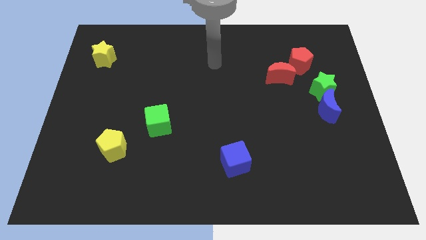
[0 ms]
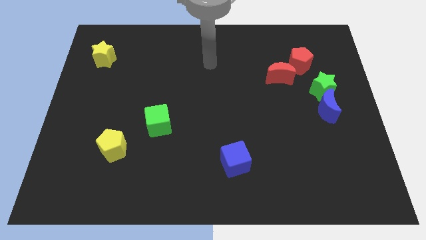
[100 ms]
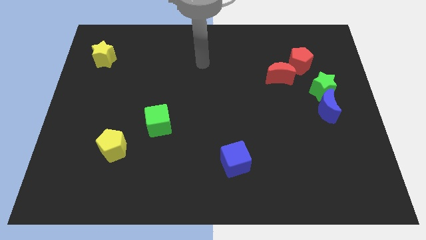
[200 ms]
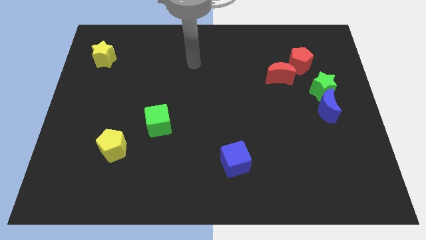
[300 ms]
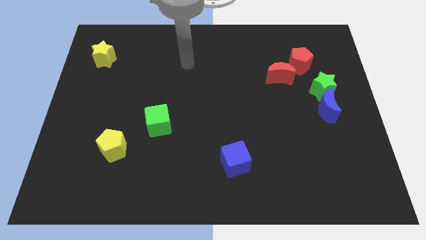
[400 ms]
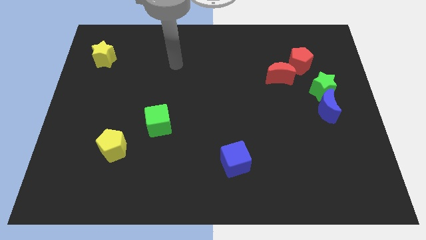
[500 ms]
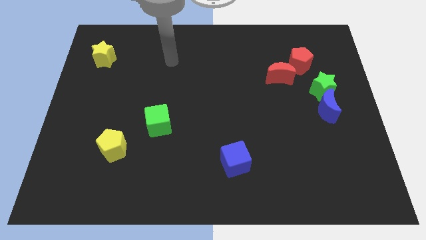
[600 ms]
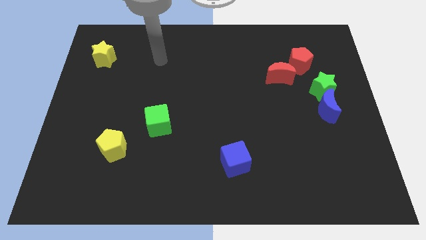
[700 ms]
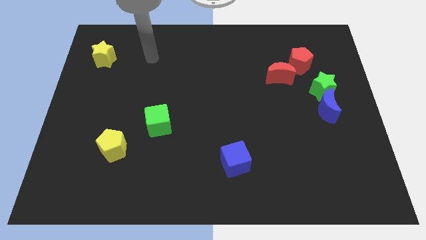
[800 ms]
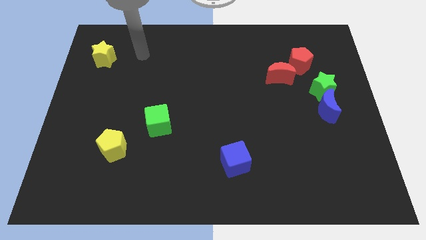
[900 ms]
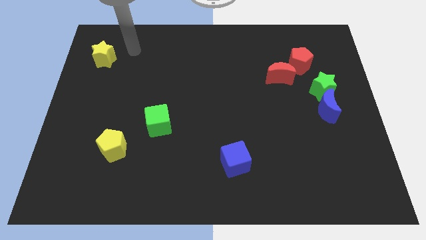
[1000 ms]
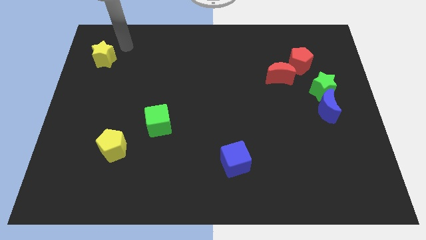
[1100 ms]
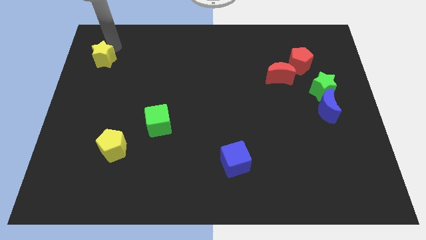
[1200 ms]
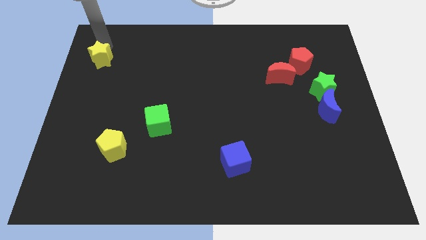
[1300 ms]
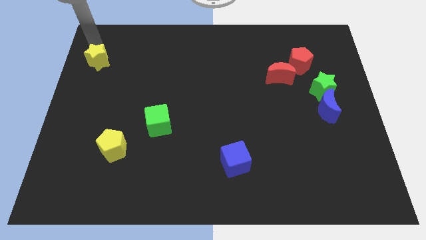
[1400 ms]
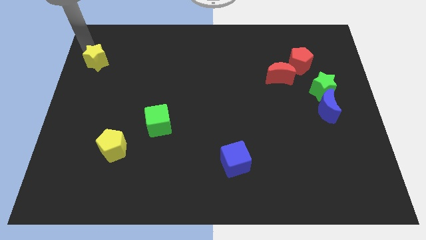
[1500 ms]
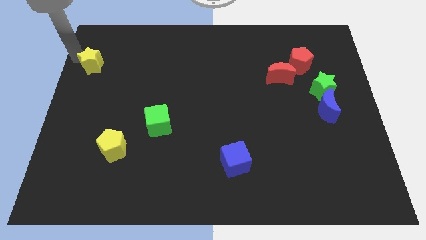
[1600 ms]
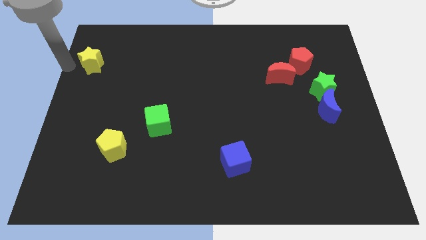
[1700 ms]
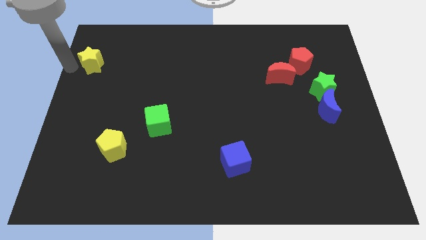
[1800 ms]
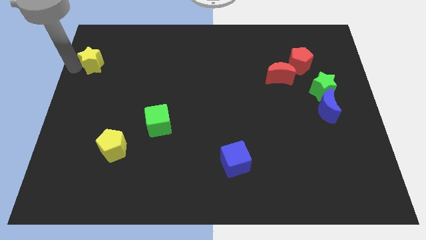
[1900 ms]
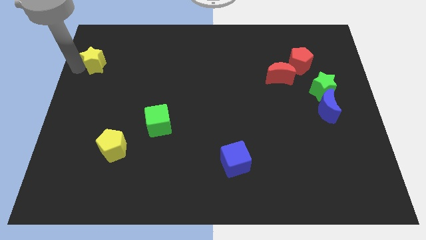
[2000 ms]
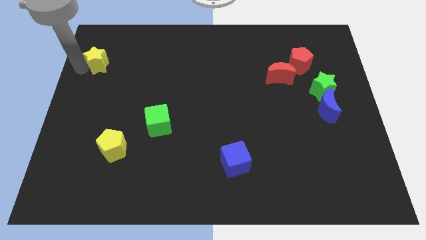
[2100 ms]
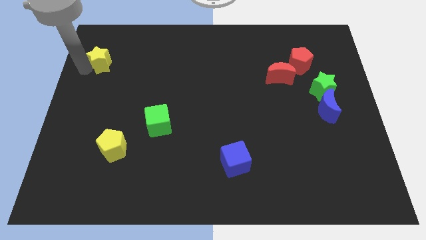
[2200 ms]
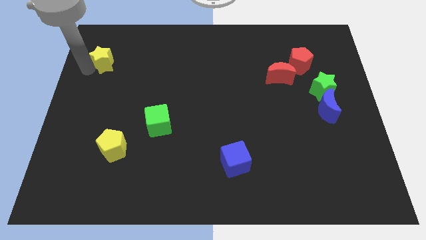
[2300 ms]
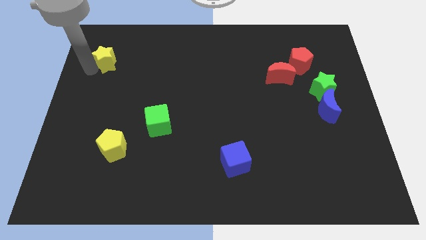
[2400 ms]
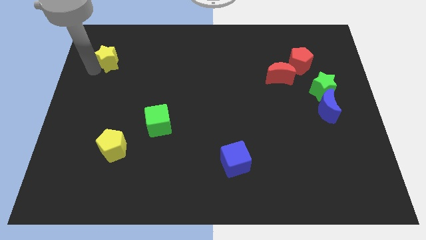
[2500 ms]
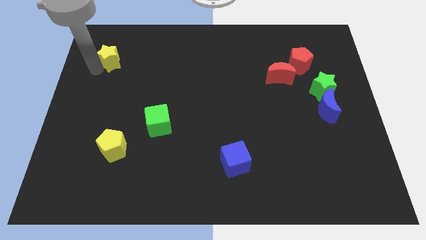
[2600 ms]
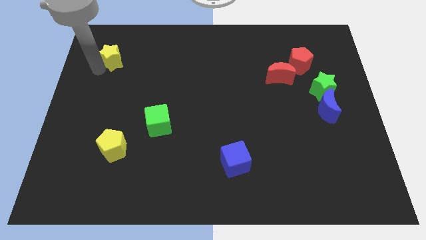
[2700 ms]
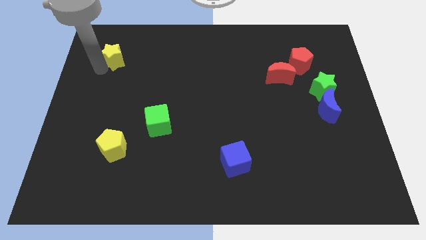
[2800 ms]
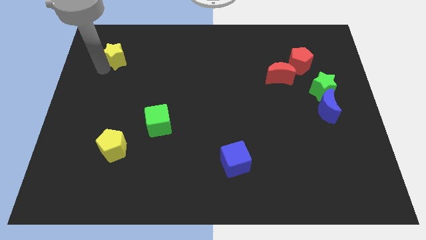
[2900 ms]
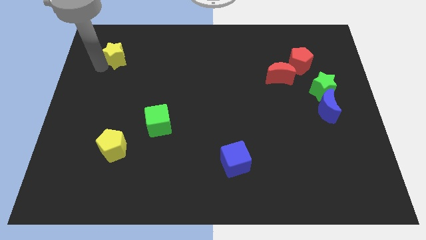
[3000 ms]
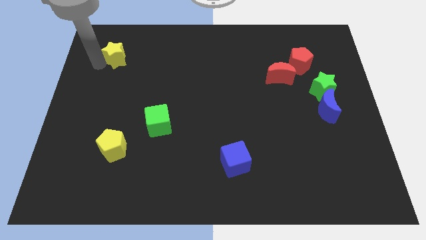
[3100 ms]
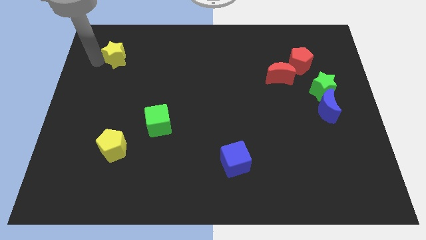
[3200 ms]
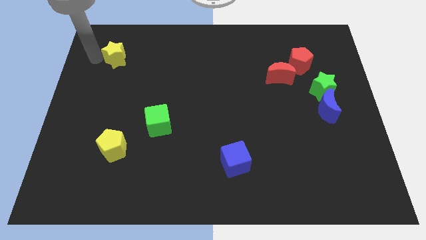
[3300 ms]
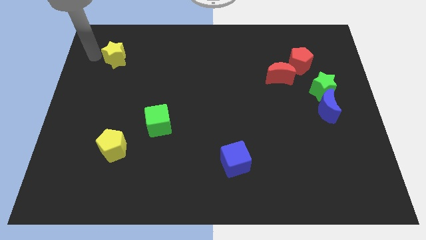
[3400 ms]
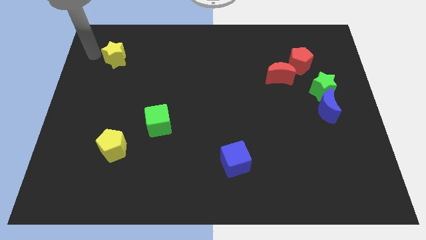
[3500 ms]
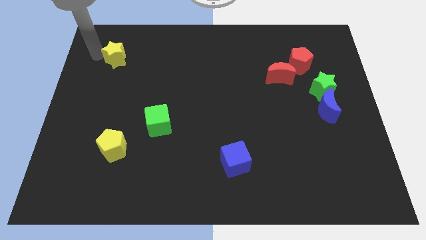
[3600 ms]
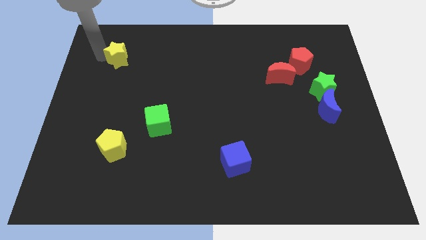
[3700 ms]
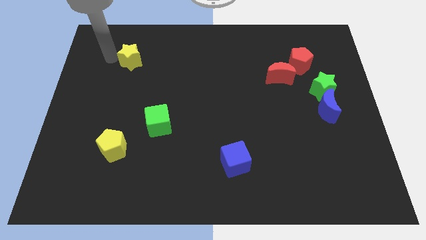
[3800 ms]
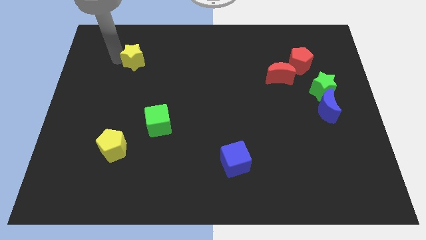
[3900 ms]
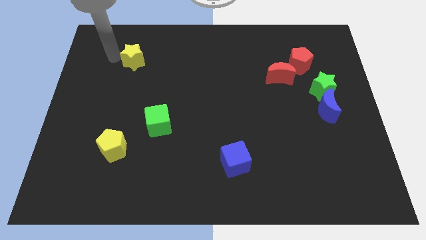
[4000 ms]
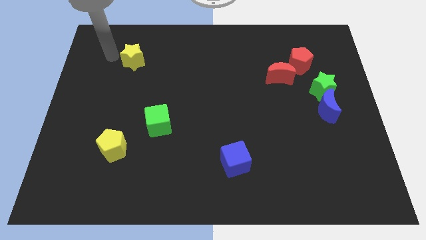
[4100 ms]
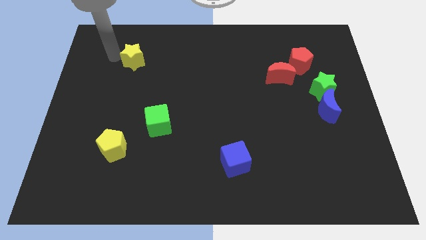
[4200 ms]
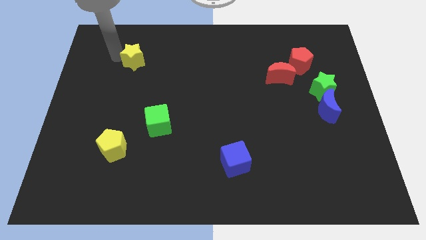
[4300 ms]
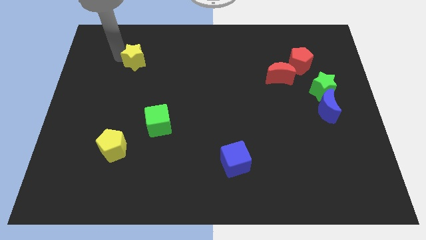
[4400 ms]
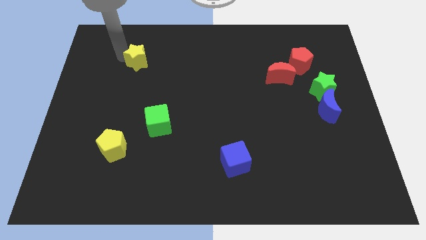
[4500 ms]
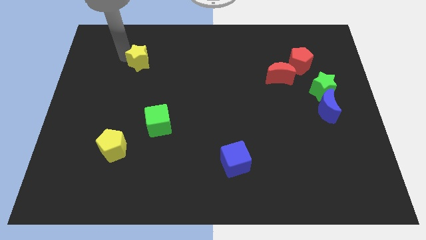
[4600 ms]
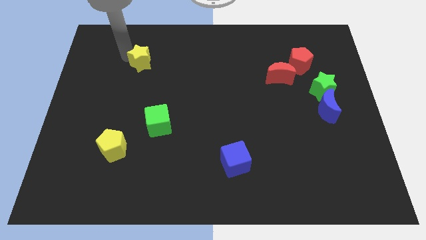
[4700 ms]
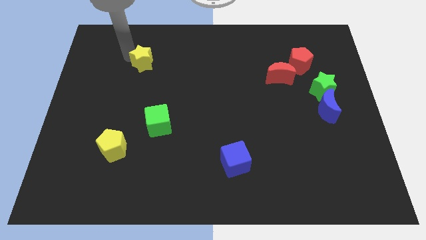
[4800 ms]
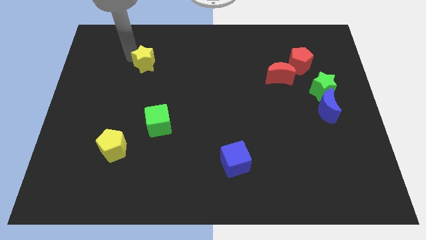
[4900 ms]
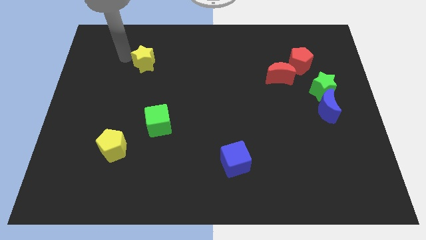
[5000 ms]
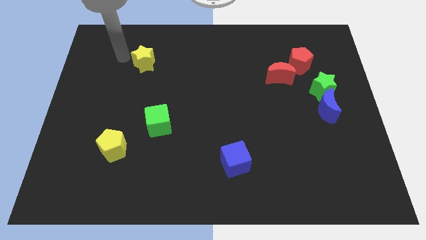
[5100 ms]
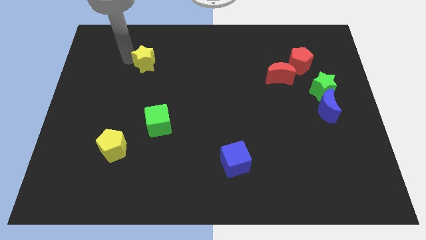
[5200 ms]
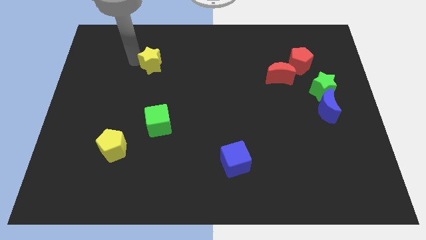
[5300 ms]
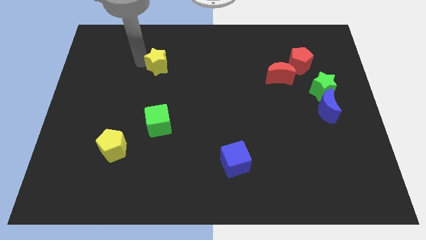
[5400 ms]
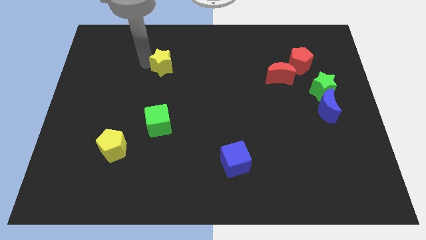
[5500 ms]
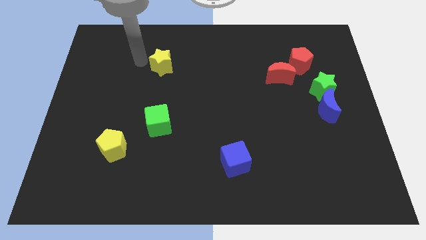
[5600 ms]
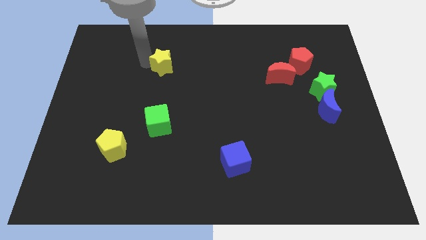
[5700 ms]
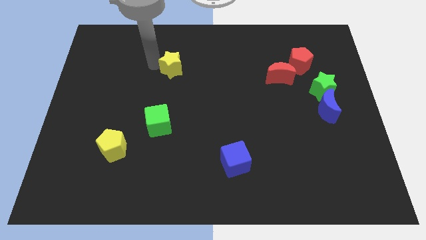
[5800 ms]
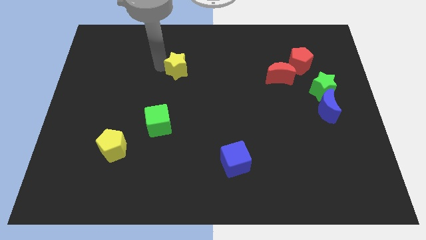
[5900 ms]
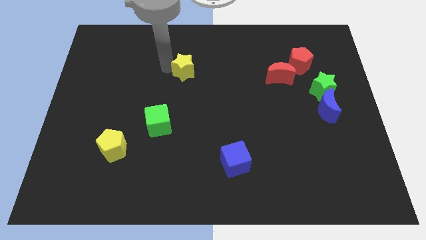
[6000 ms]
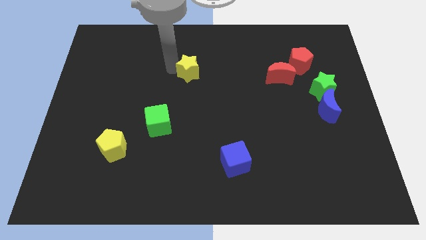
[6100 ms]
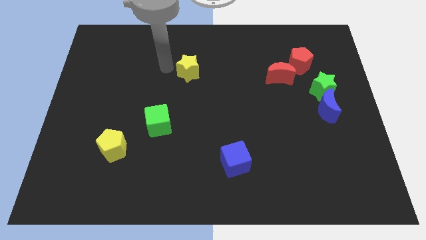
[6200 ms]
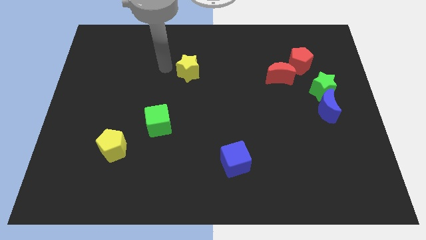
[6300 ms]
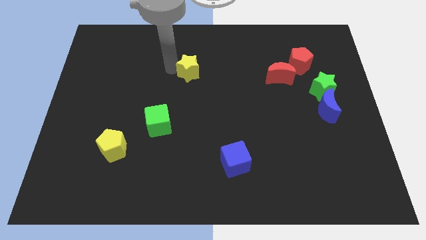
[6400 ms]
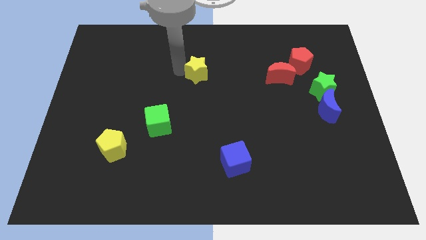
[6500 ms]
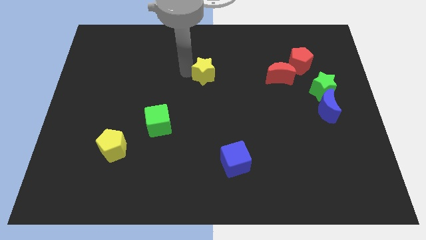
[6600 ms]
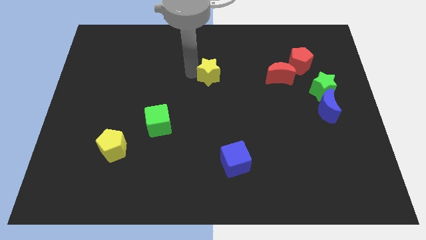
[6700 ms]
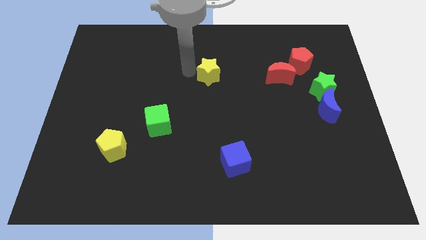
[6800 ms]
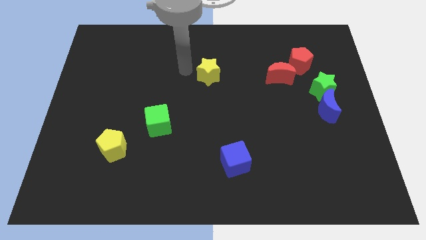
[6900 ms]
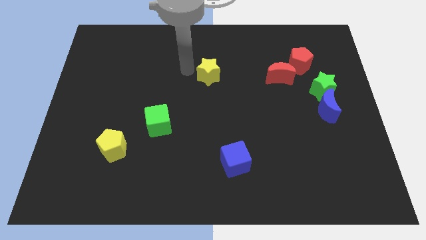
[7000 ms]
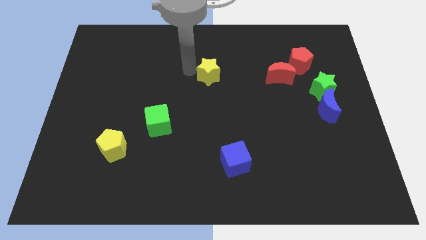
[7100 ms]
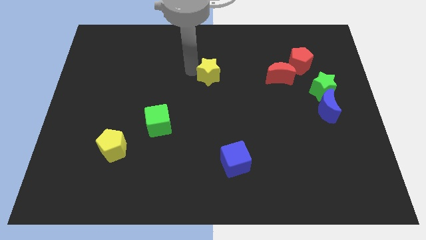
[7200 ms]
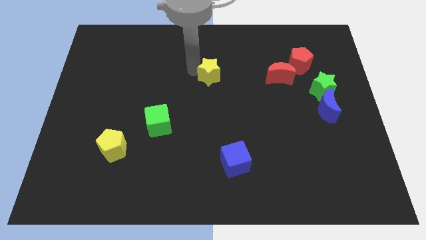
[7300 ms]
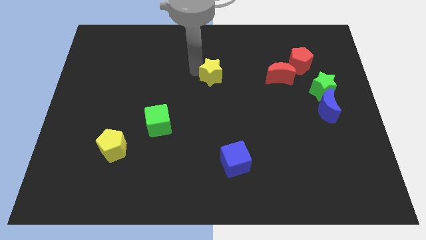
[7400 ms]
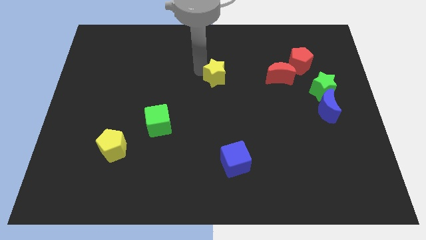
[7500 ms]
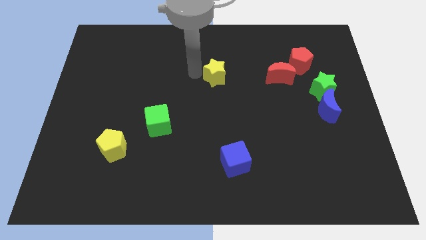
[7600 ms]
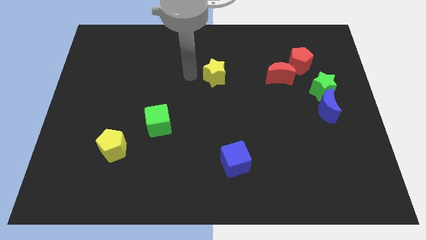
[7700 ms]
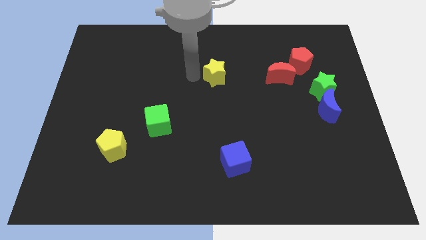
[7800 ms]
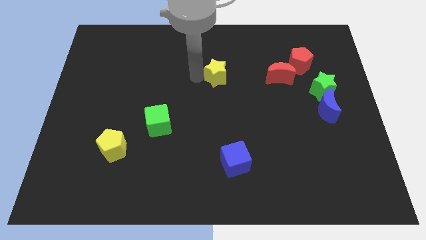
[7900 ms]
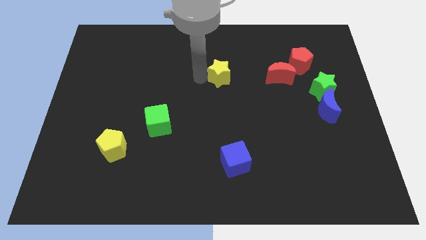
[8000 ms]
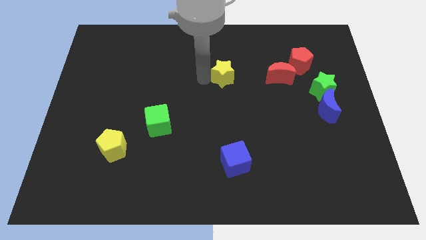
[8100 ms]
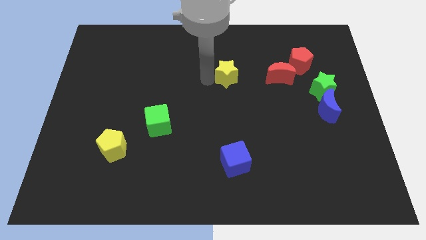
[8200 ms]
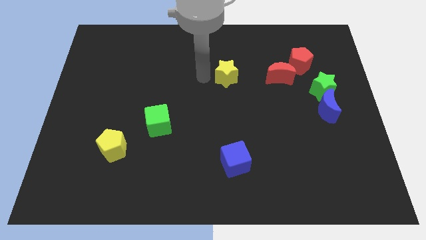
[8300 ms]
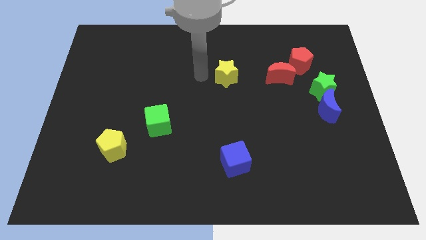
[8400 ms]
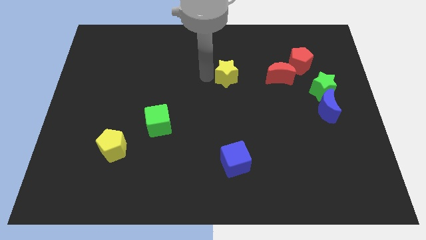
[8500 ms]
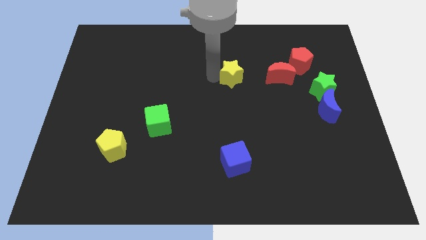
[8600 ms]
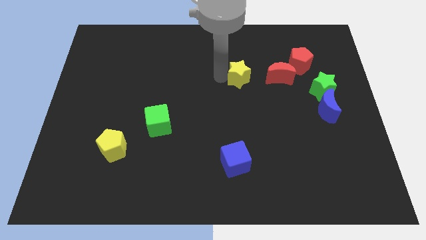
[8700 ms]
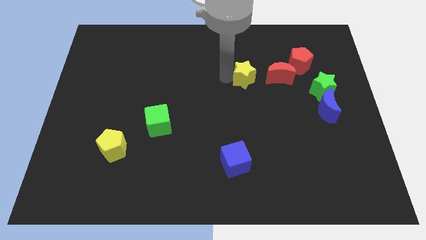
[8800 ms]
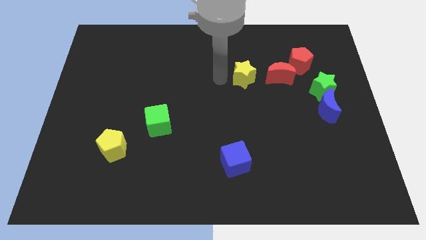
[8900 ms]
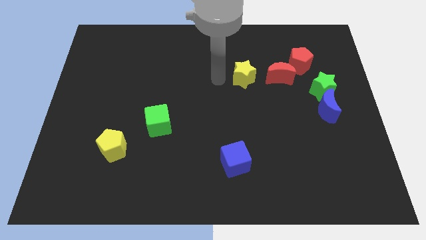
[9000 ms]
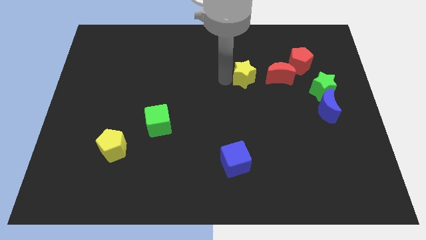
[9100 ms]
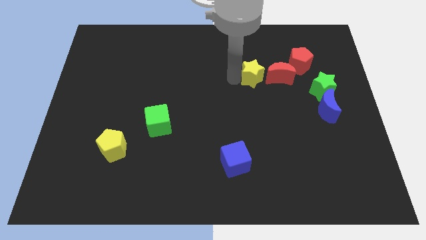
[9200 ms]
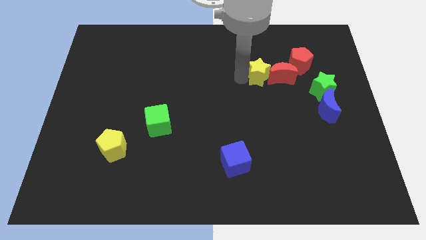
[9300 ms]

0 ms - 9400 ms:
slide the yellow star to the red moon
